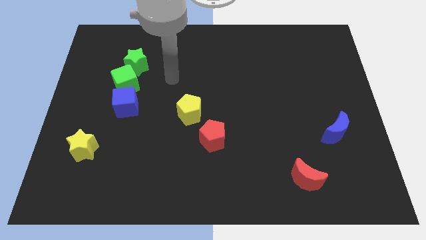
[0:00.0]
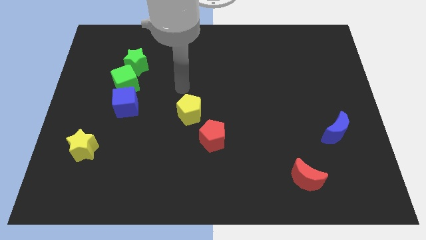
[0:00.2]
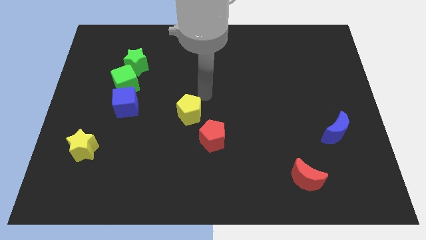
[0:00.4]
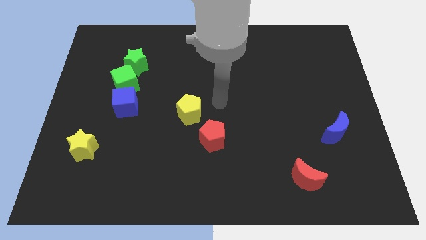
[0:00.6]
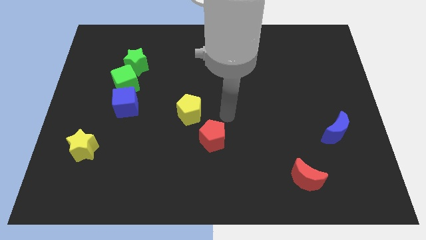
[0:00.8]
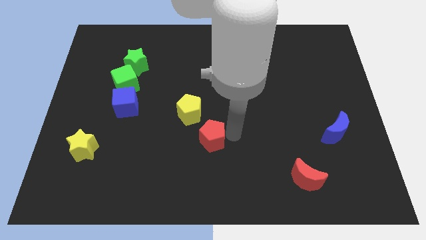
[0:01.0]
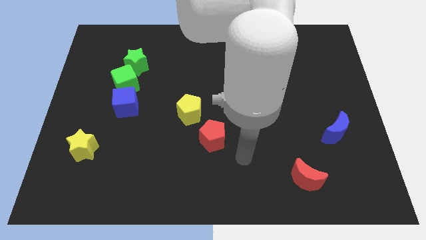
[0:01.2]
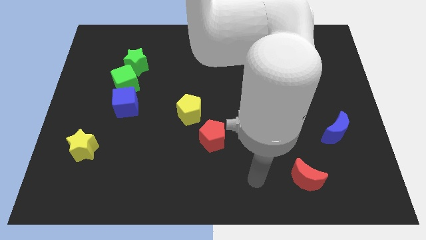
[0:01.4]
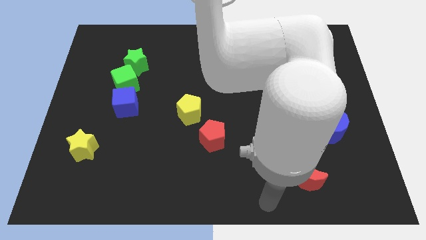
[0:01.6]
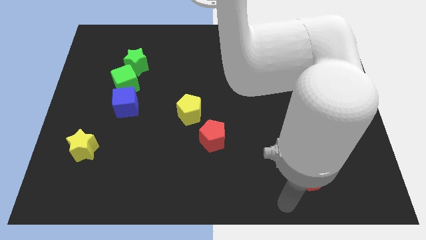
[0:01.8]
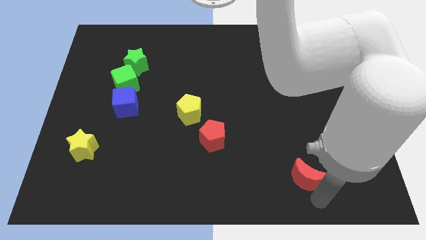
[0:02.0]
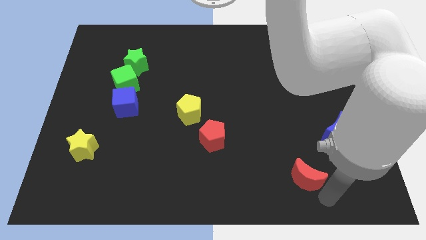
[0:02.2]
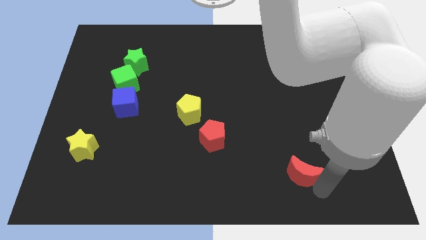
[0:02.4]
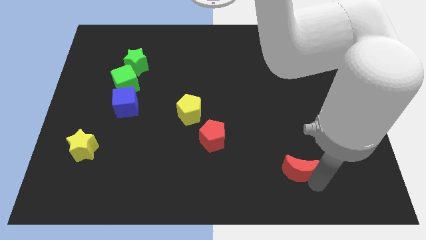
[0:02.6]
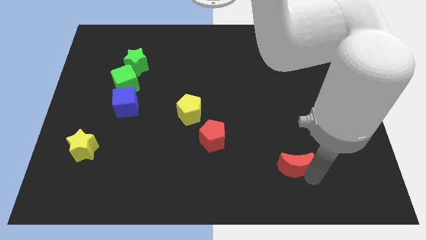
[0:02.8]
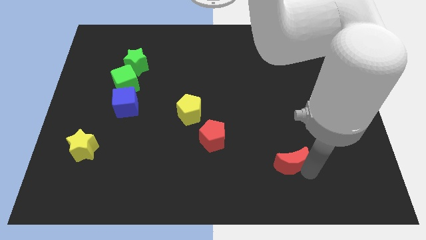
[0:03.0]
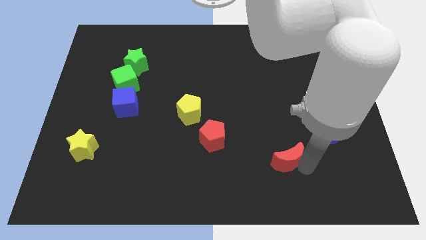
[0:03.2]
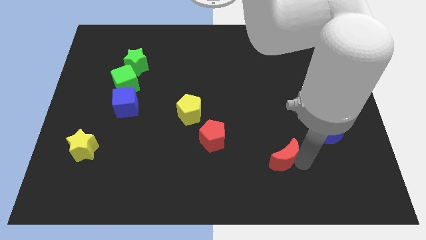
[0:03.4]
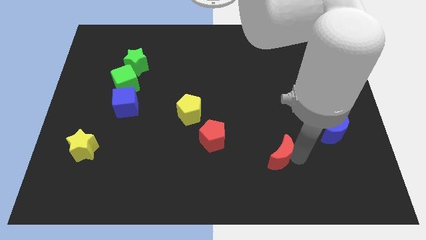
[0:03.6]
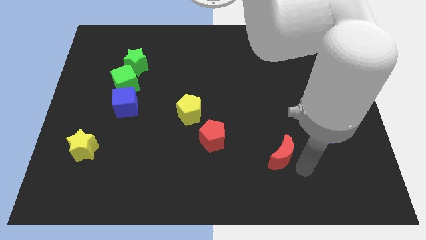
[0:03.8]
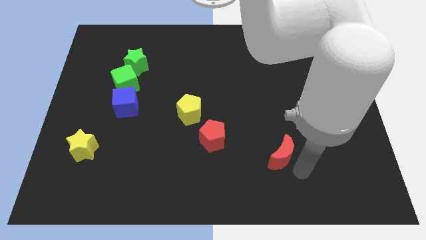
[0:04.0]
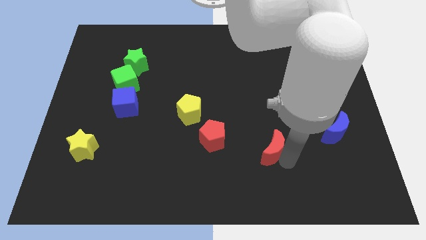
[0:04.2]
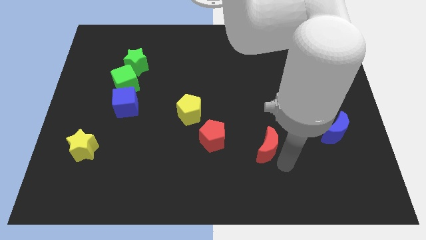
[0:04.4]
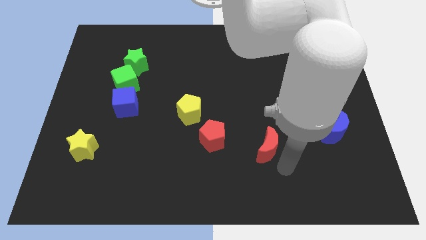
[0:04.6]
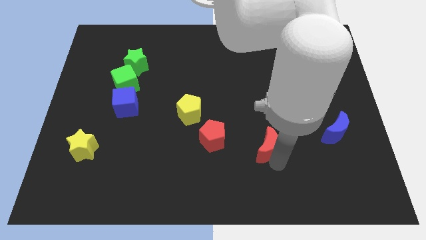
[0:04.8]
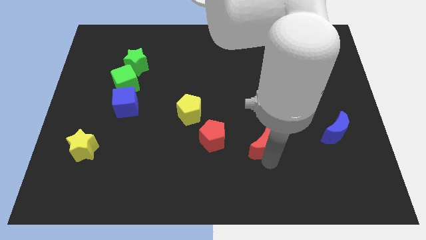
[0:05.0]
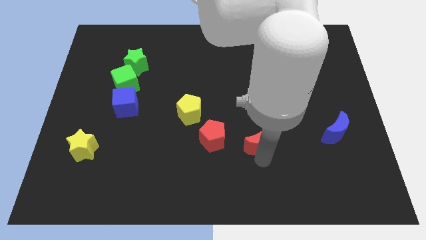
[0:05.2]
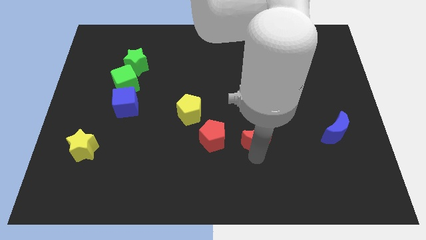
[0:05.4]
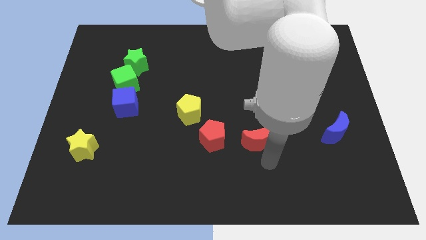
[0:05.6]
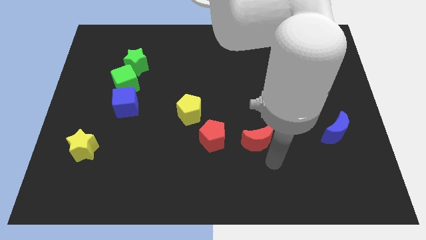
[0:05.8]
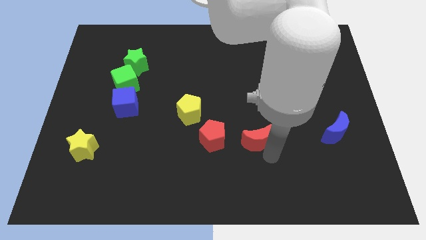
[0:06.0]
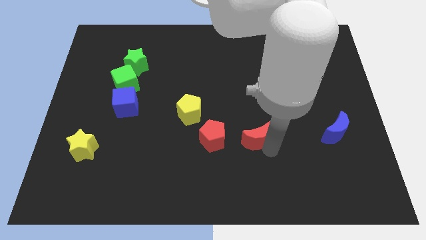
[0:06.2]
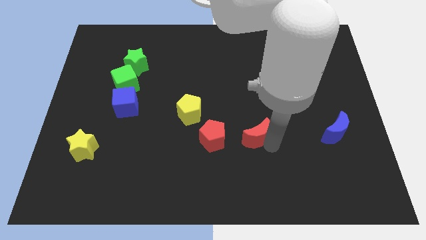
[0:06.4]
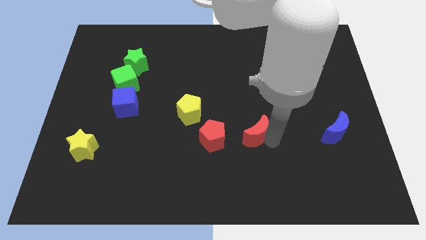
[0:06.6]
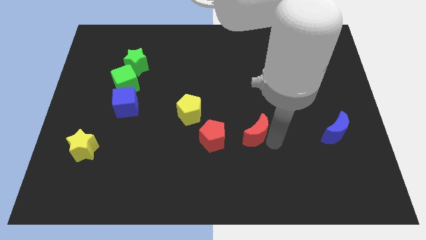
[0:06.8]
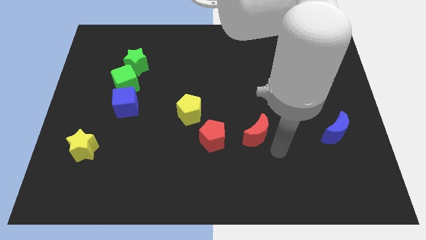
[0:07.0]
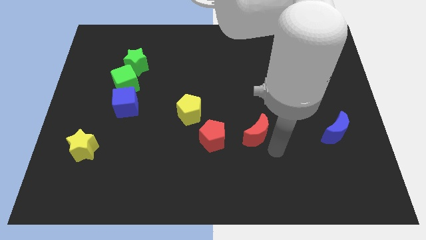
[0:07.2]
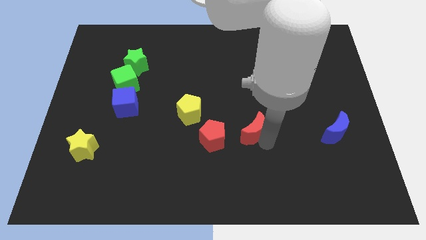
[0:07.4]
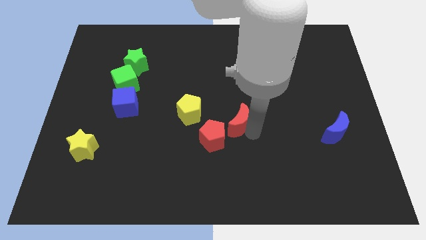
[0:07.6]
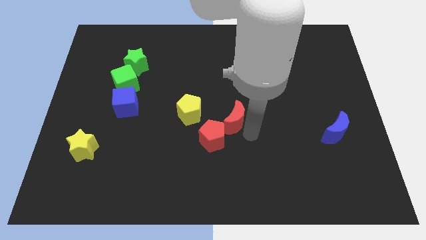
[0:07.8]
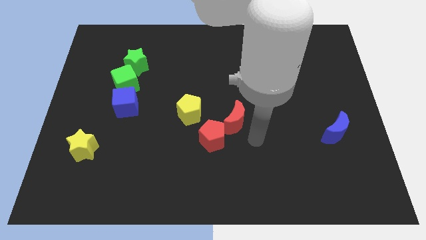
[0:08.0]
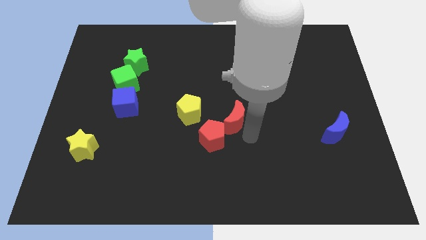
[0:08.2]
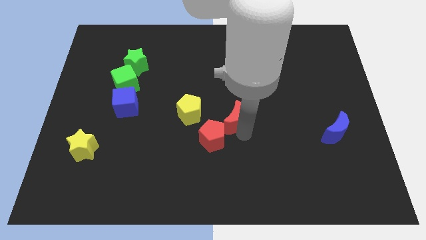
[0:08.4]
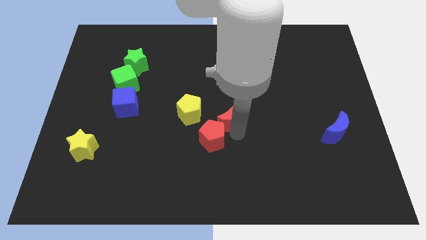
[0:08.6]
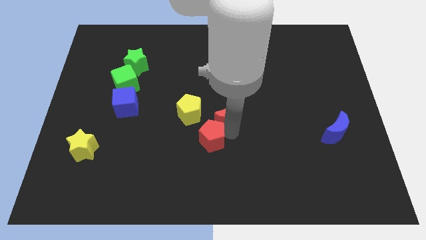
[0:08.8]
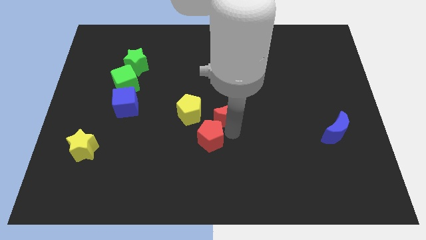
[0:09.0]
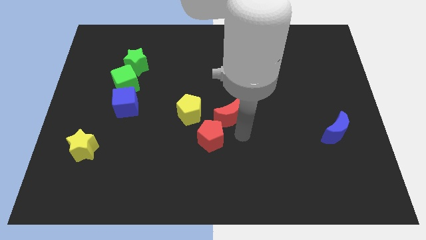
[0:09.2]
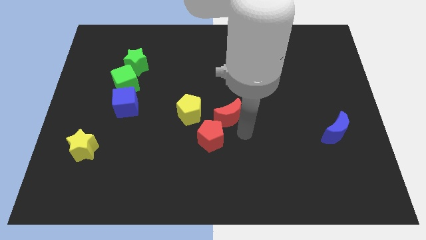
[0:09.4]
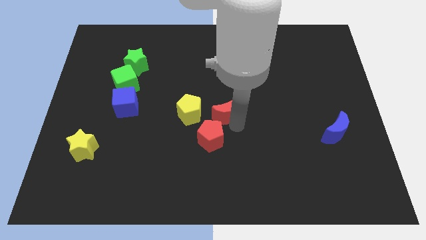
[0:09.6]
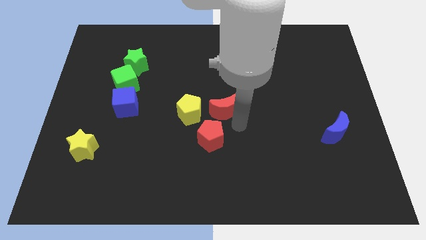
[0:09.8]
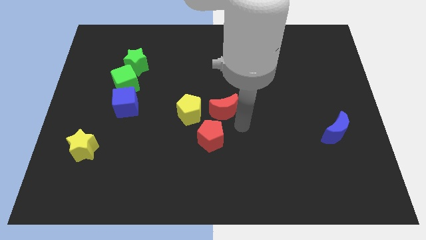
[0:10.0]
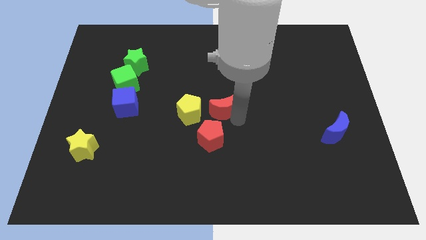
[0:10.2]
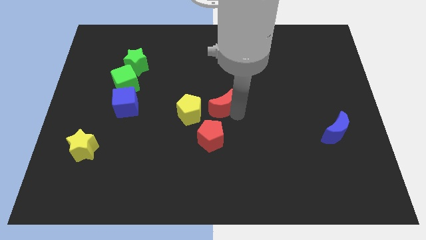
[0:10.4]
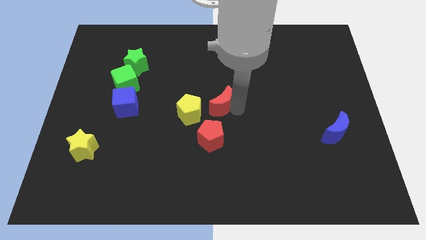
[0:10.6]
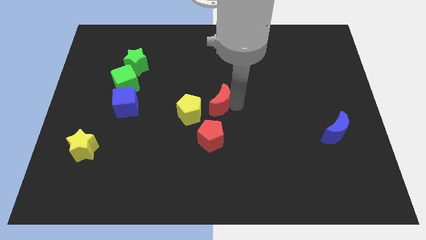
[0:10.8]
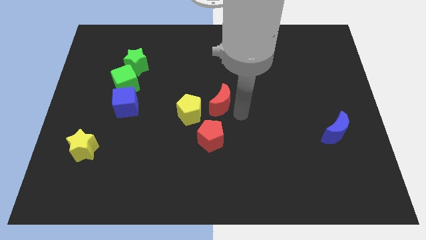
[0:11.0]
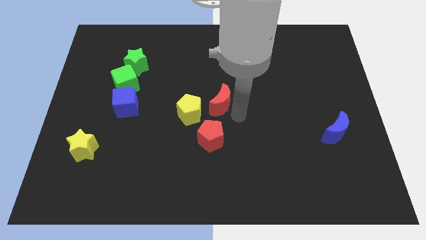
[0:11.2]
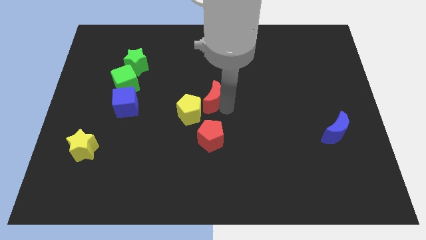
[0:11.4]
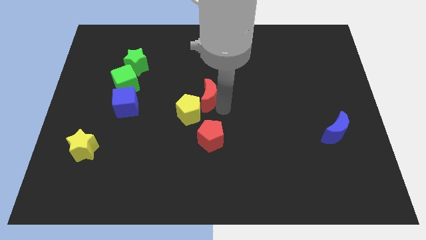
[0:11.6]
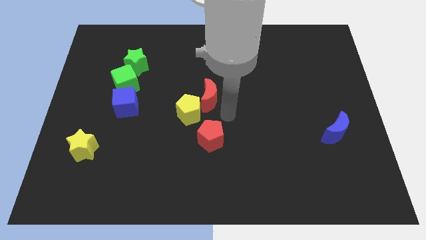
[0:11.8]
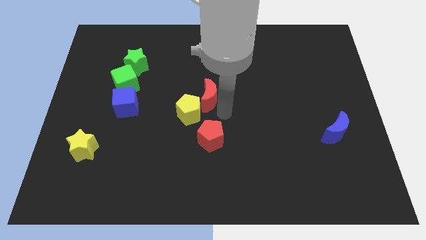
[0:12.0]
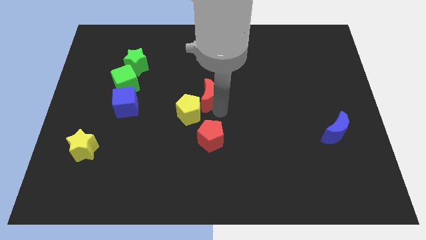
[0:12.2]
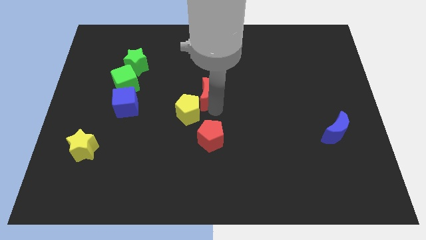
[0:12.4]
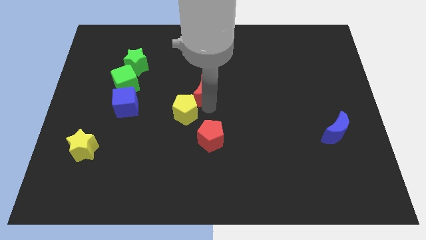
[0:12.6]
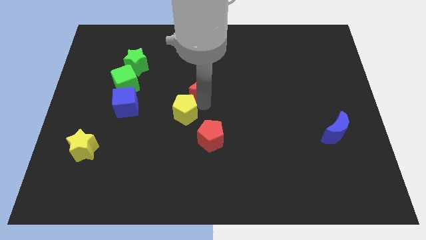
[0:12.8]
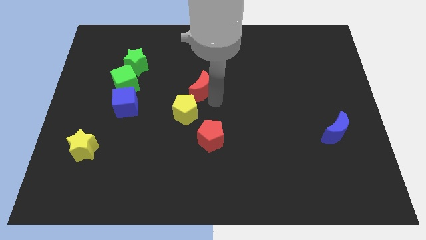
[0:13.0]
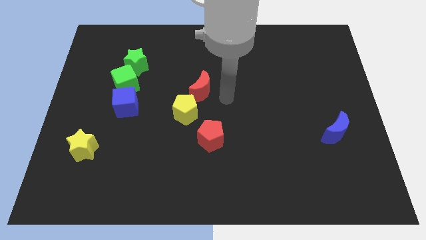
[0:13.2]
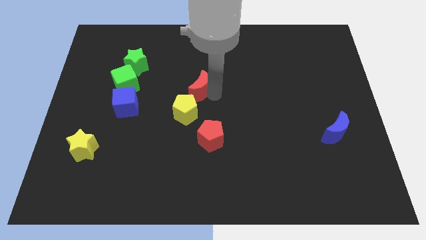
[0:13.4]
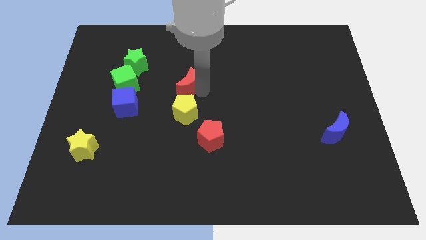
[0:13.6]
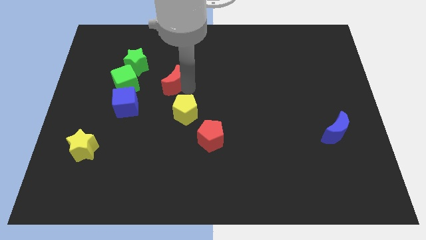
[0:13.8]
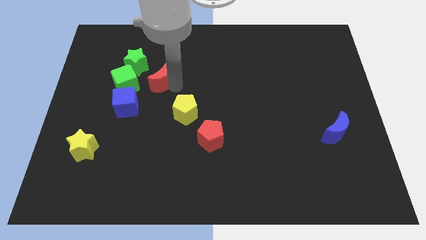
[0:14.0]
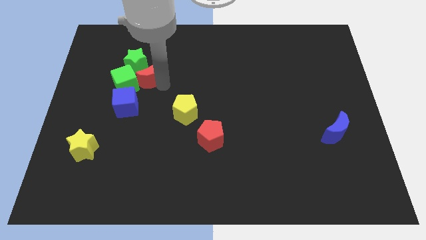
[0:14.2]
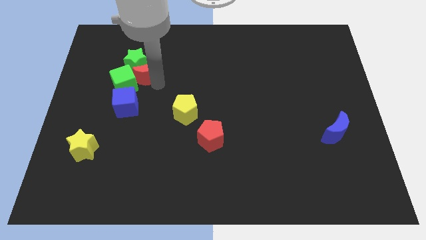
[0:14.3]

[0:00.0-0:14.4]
move the red moon next to the green star

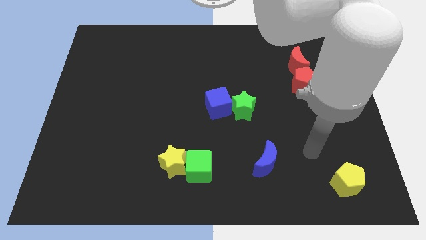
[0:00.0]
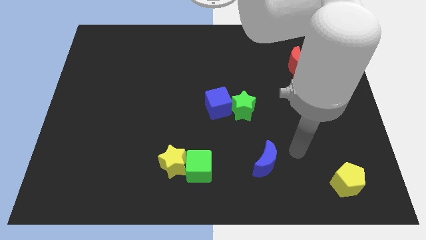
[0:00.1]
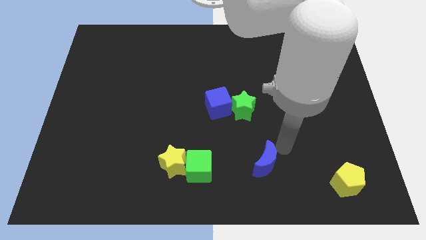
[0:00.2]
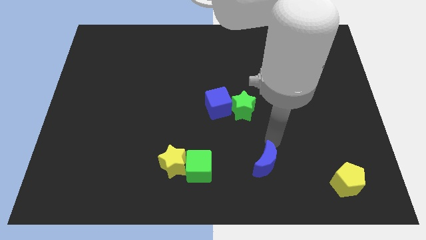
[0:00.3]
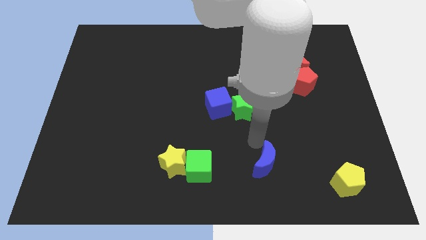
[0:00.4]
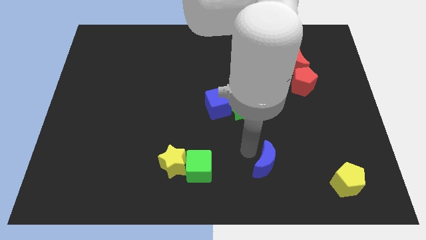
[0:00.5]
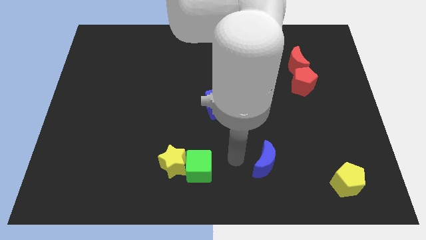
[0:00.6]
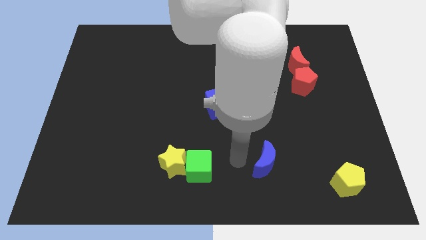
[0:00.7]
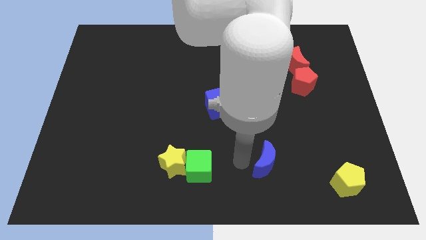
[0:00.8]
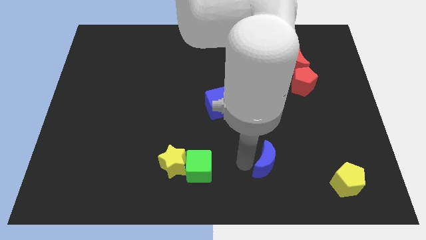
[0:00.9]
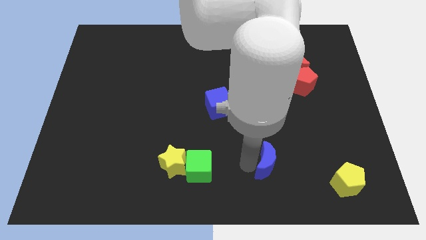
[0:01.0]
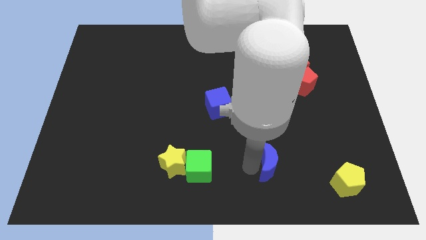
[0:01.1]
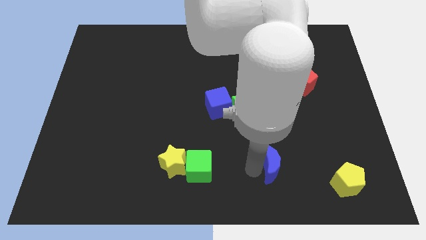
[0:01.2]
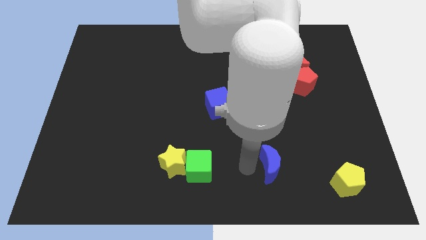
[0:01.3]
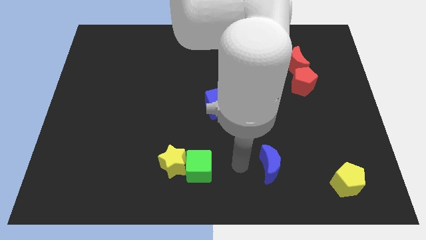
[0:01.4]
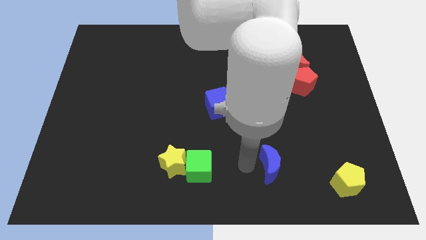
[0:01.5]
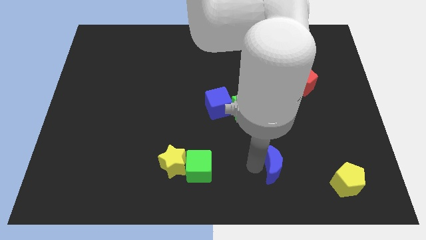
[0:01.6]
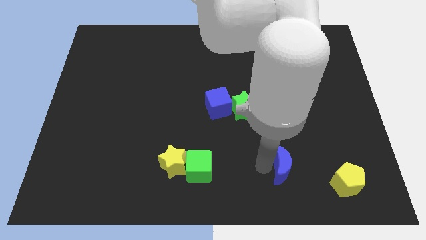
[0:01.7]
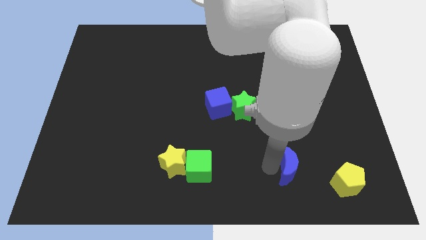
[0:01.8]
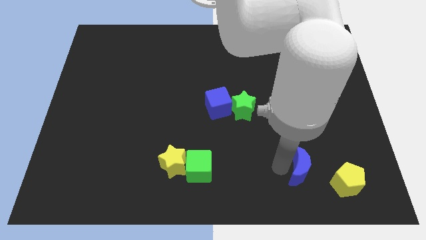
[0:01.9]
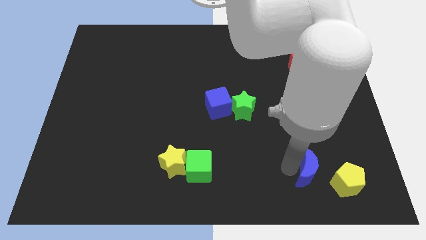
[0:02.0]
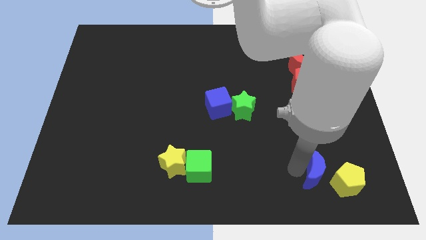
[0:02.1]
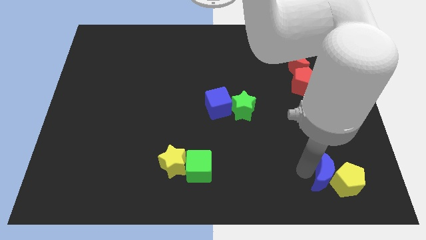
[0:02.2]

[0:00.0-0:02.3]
move the blue moon next to the yellow pentagon
